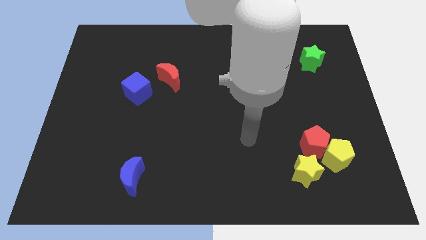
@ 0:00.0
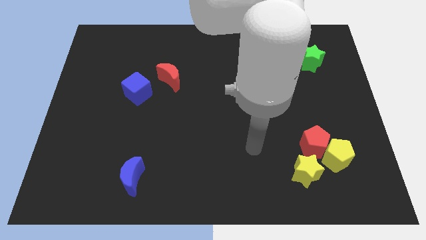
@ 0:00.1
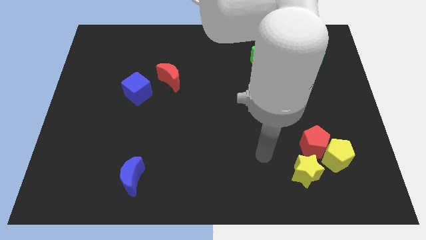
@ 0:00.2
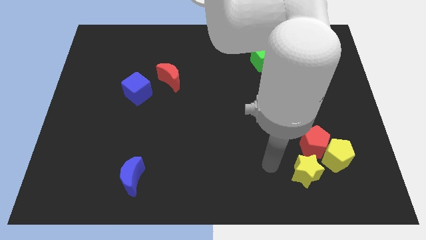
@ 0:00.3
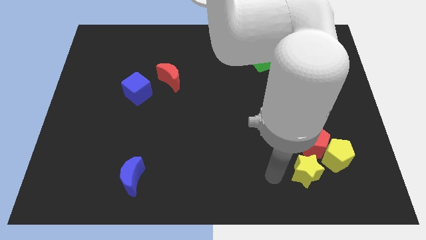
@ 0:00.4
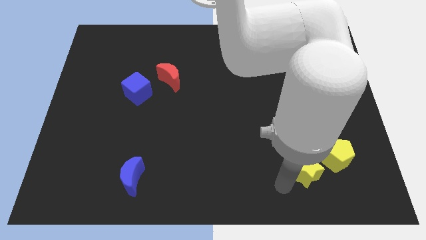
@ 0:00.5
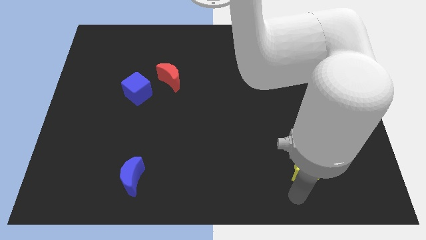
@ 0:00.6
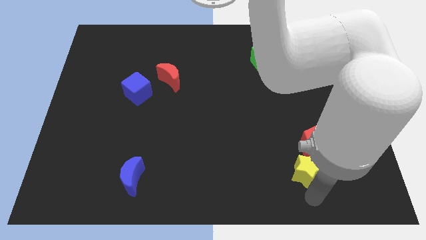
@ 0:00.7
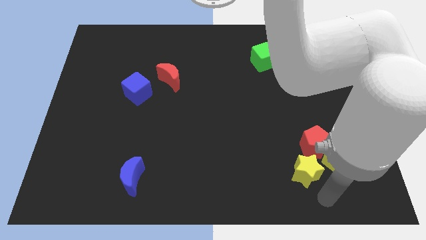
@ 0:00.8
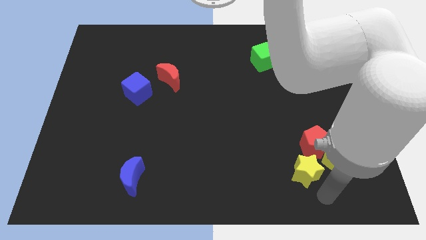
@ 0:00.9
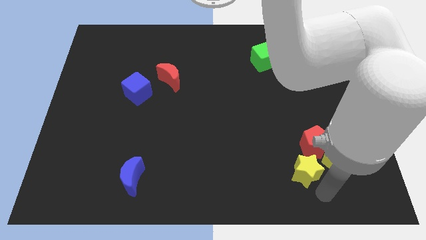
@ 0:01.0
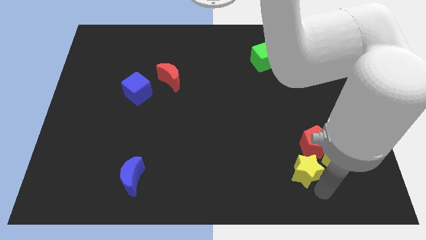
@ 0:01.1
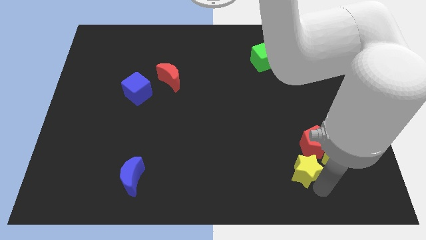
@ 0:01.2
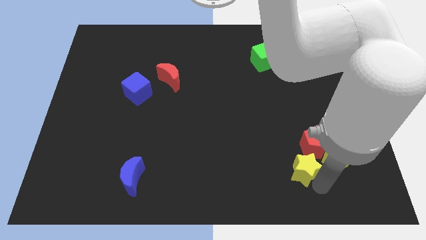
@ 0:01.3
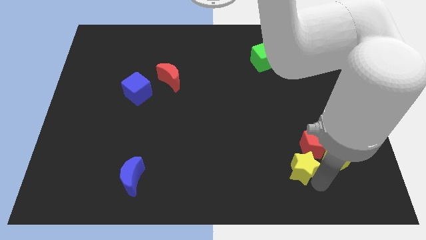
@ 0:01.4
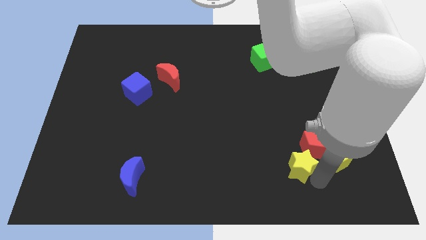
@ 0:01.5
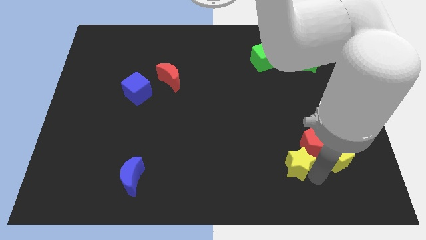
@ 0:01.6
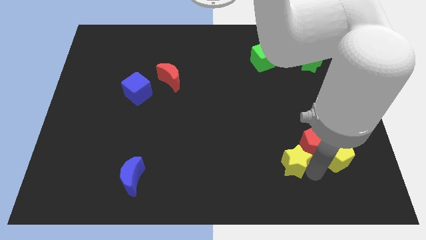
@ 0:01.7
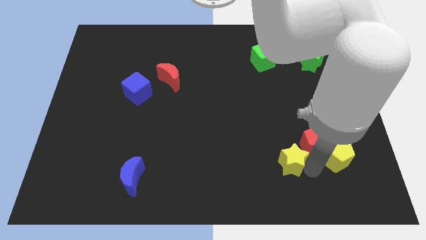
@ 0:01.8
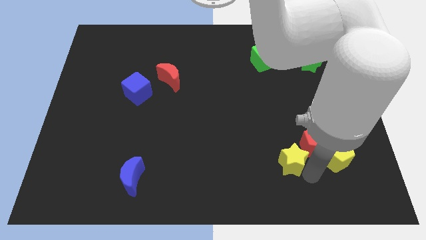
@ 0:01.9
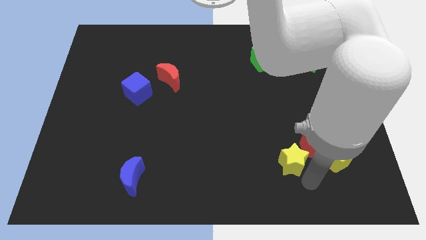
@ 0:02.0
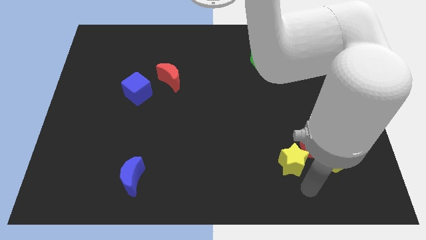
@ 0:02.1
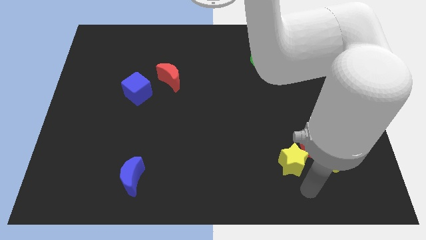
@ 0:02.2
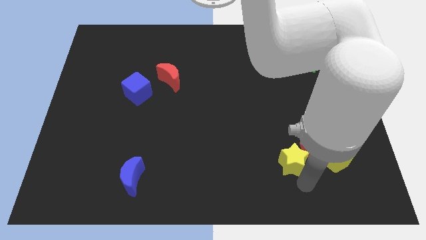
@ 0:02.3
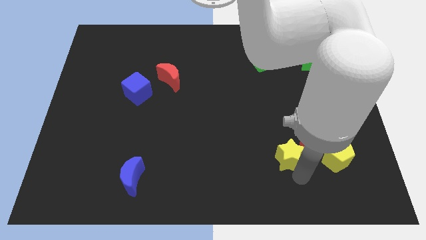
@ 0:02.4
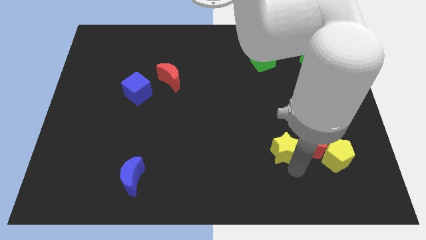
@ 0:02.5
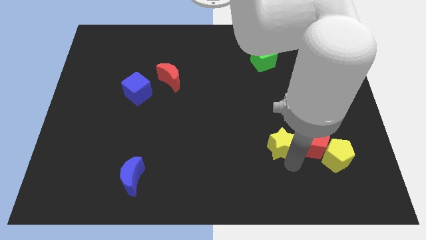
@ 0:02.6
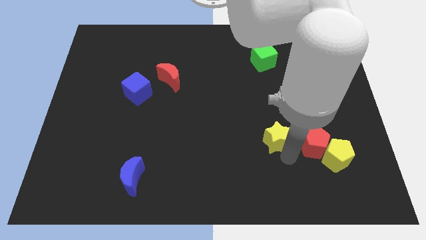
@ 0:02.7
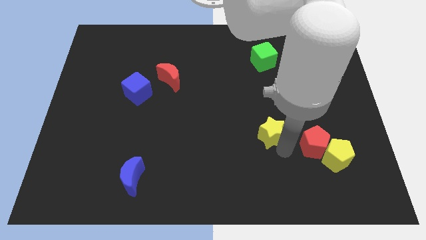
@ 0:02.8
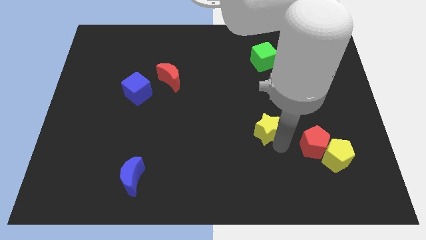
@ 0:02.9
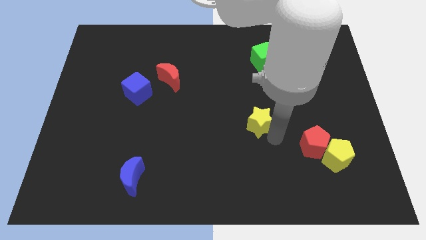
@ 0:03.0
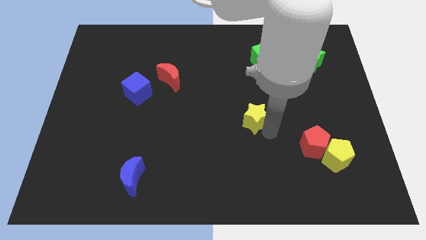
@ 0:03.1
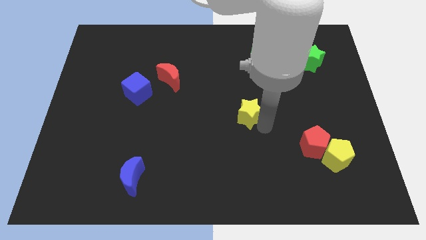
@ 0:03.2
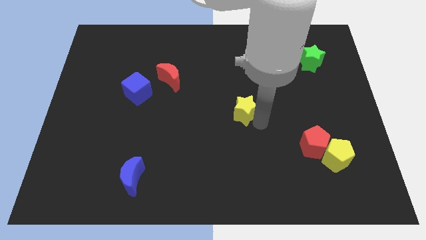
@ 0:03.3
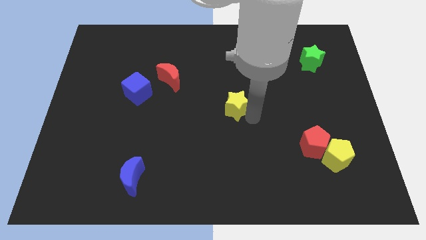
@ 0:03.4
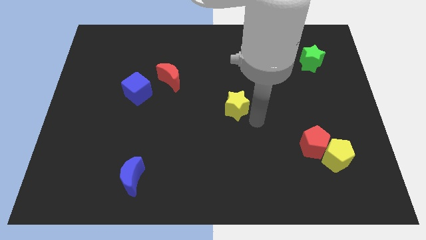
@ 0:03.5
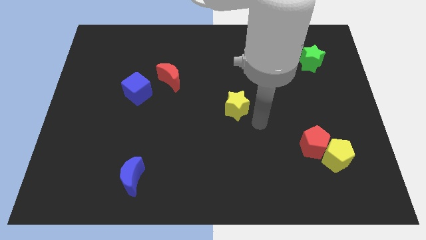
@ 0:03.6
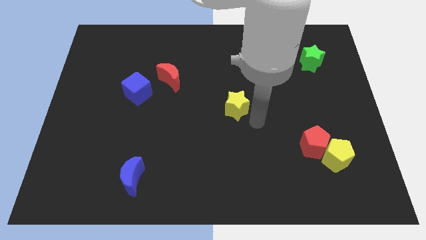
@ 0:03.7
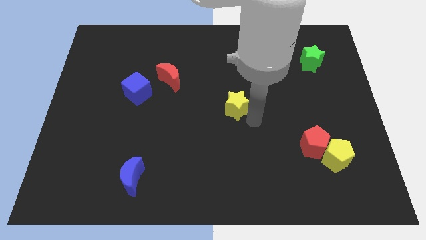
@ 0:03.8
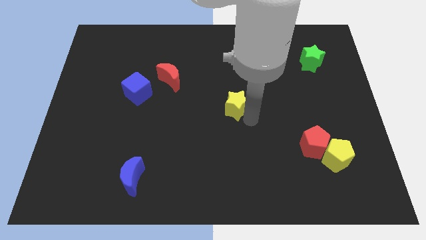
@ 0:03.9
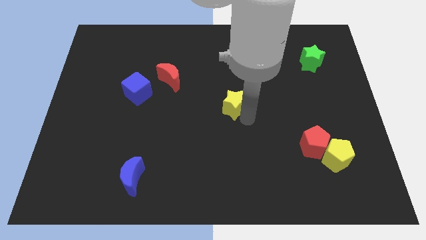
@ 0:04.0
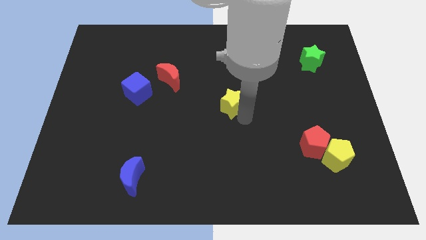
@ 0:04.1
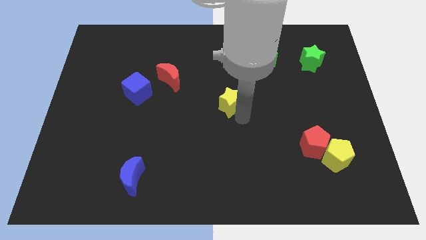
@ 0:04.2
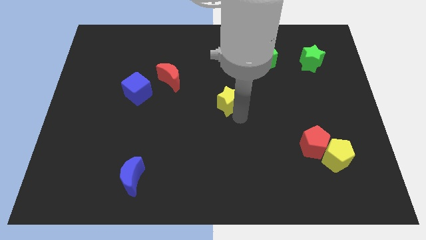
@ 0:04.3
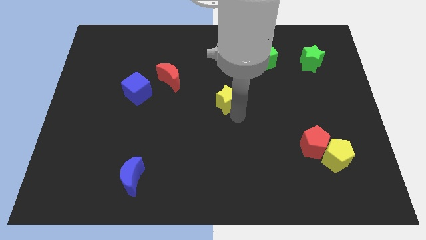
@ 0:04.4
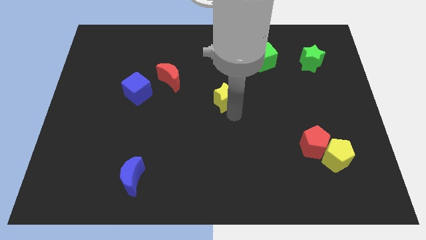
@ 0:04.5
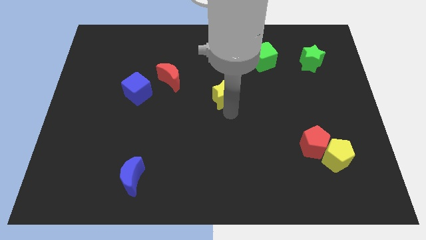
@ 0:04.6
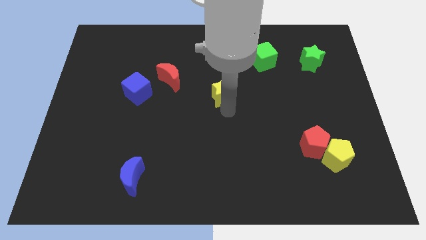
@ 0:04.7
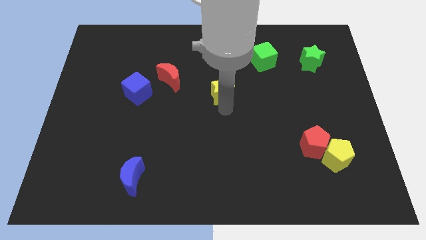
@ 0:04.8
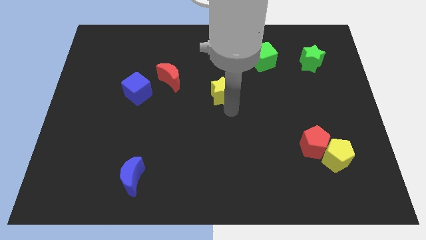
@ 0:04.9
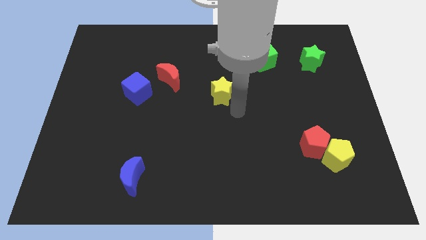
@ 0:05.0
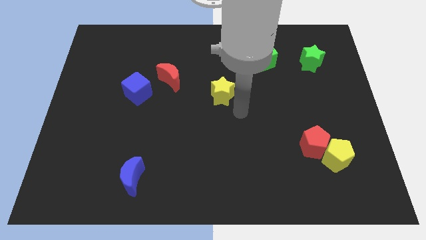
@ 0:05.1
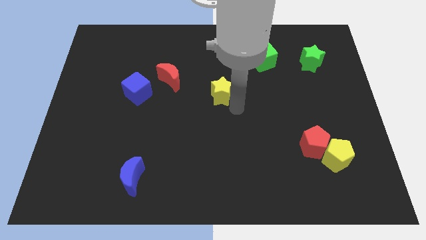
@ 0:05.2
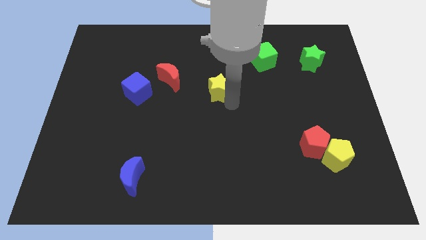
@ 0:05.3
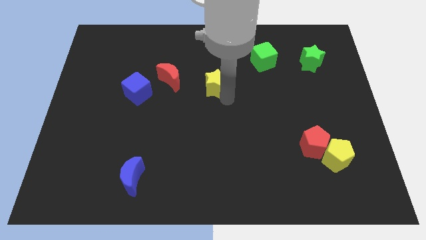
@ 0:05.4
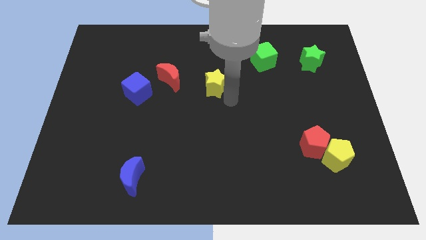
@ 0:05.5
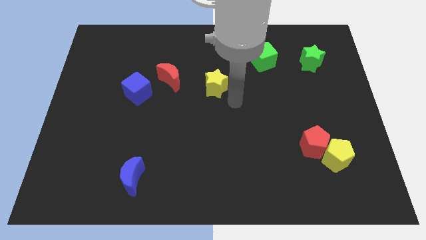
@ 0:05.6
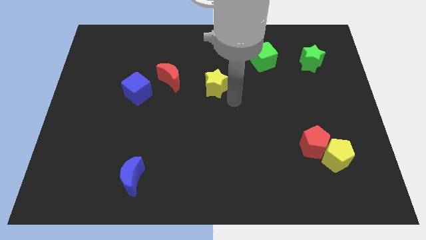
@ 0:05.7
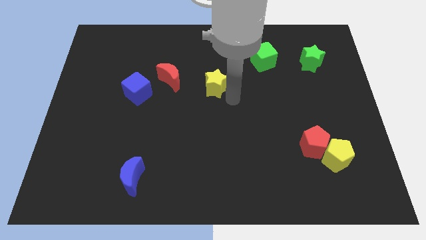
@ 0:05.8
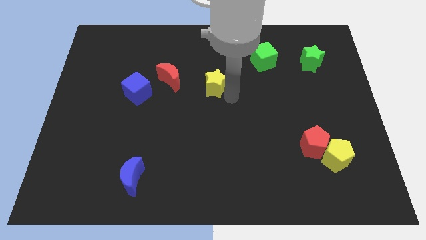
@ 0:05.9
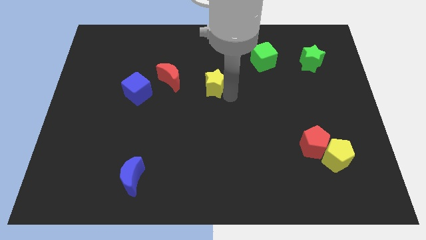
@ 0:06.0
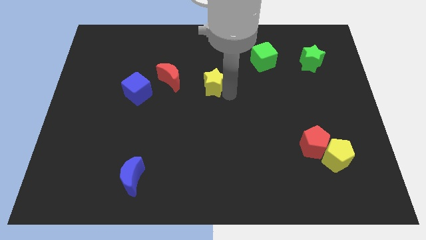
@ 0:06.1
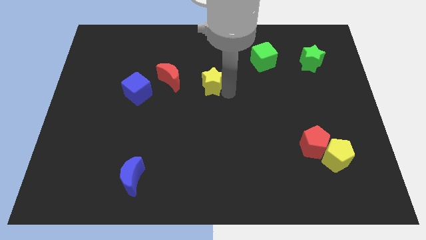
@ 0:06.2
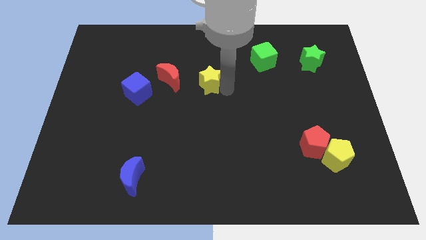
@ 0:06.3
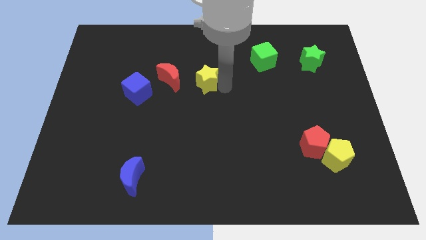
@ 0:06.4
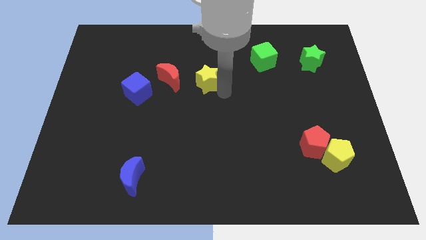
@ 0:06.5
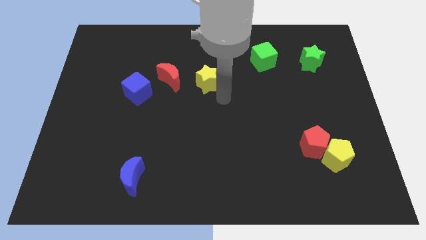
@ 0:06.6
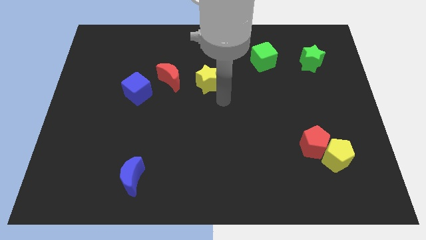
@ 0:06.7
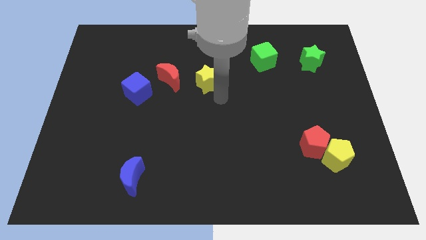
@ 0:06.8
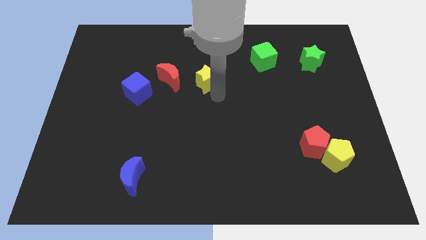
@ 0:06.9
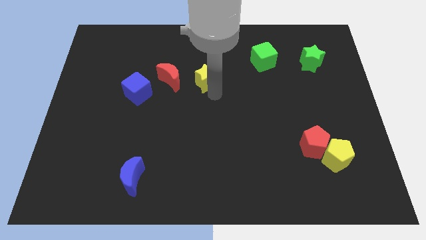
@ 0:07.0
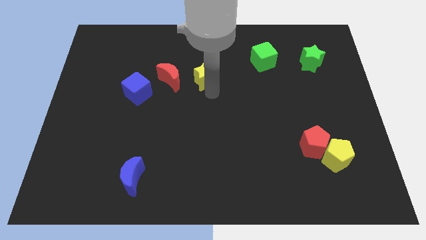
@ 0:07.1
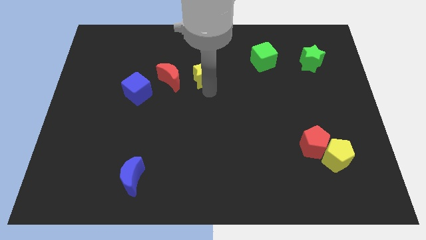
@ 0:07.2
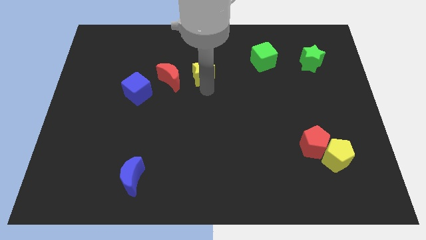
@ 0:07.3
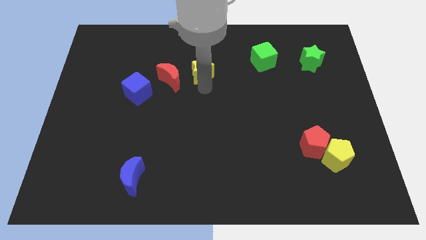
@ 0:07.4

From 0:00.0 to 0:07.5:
slide the yellow star to the top right of the red moon
